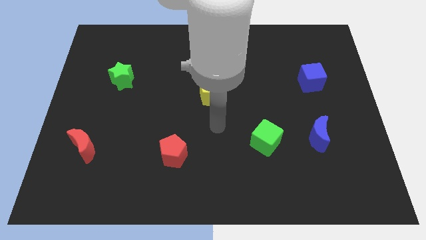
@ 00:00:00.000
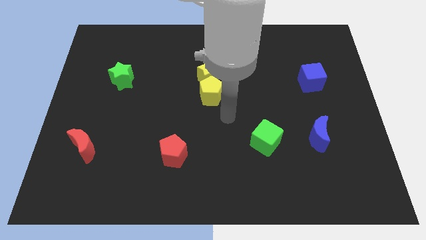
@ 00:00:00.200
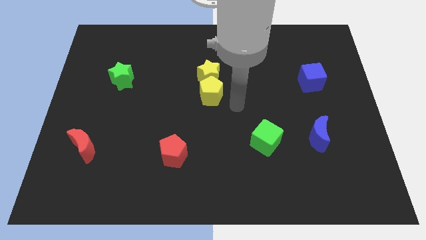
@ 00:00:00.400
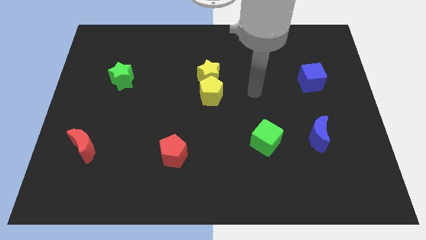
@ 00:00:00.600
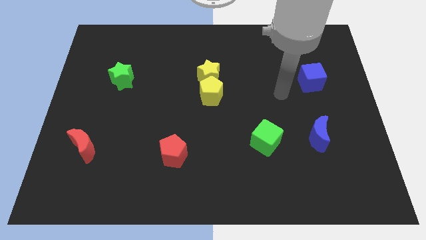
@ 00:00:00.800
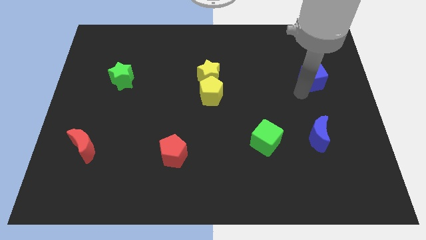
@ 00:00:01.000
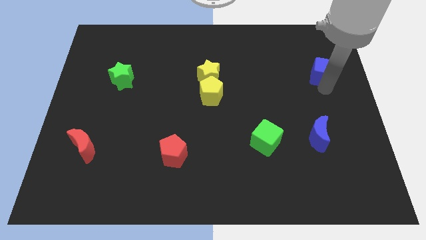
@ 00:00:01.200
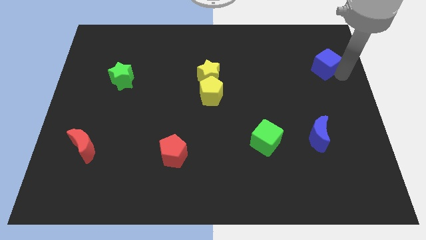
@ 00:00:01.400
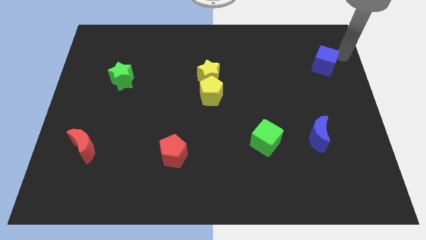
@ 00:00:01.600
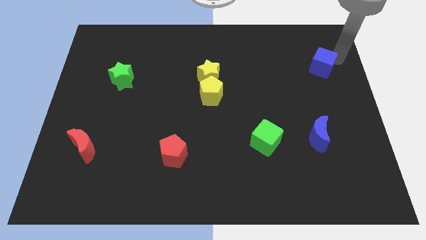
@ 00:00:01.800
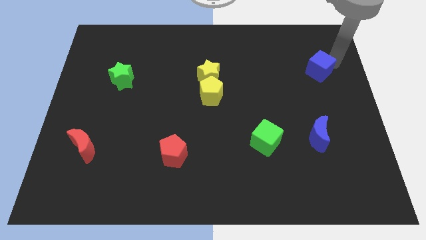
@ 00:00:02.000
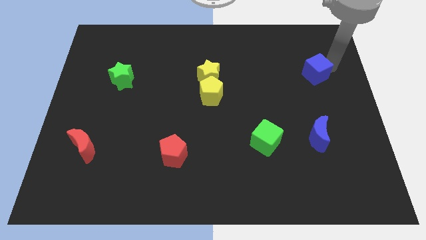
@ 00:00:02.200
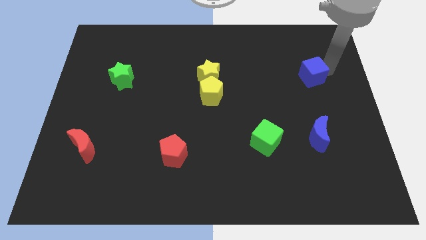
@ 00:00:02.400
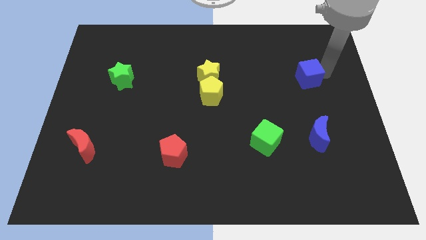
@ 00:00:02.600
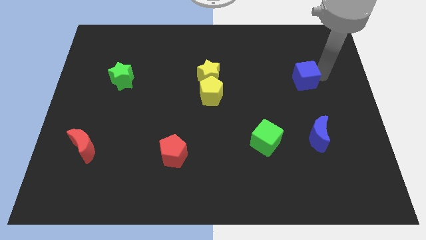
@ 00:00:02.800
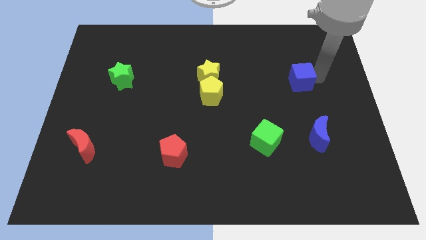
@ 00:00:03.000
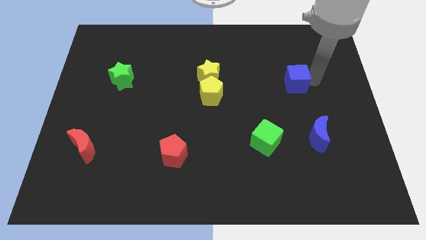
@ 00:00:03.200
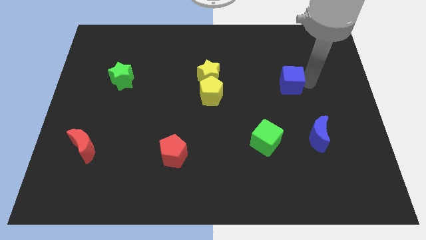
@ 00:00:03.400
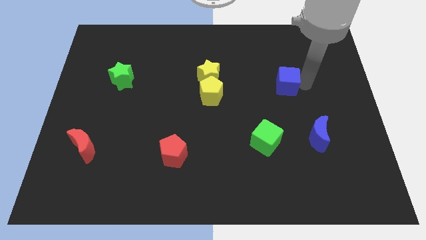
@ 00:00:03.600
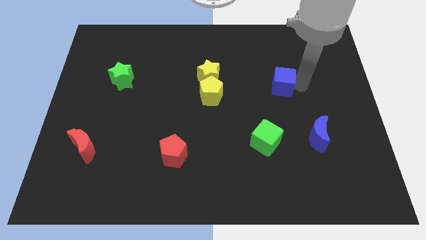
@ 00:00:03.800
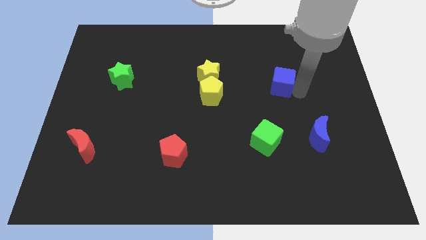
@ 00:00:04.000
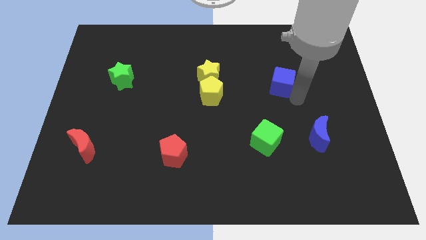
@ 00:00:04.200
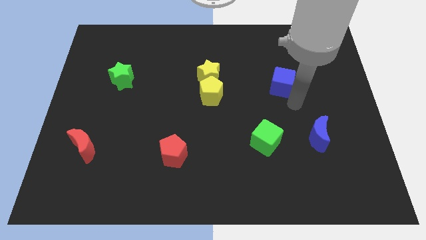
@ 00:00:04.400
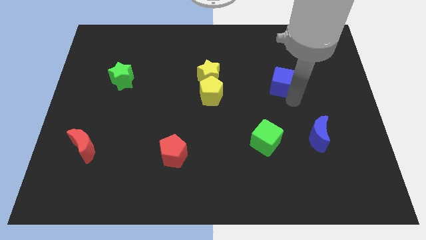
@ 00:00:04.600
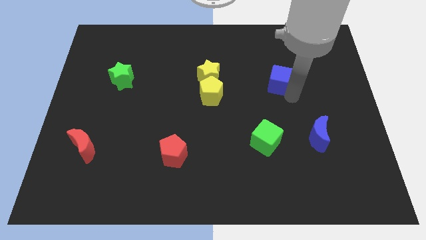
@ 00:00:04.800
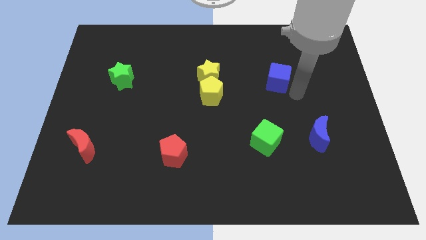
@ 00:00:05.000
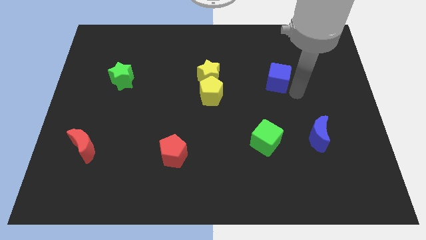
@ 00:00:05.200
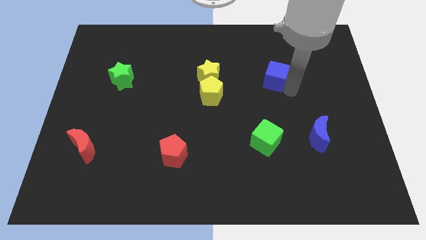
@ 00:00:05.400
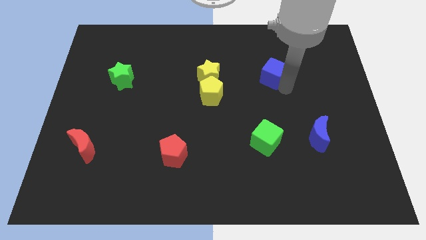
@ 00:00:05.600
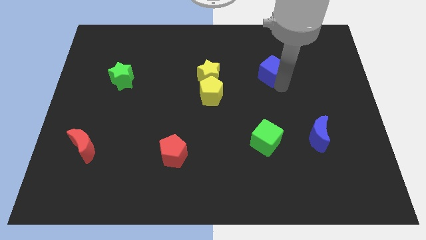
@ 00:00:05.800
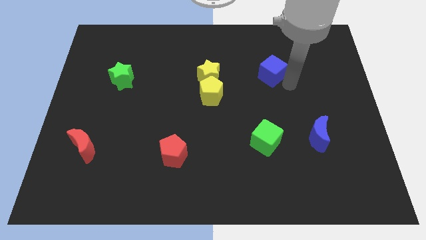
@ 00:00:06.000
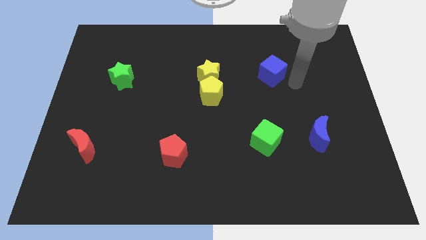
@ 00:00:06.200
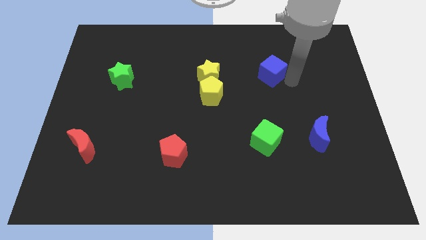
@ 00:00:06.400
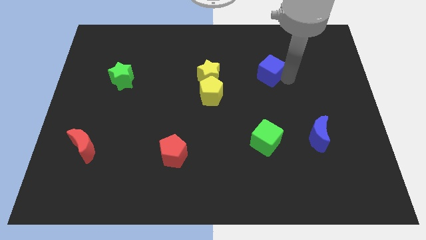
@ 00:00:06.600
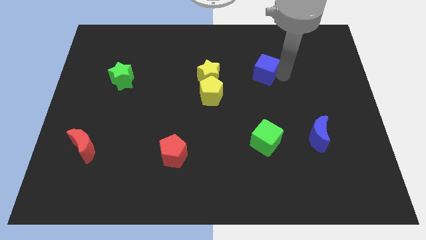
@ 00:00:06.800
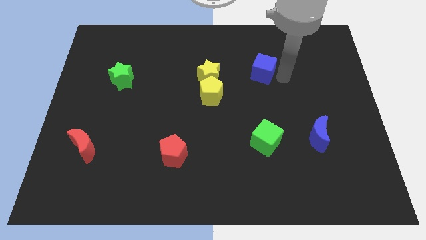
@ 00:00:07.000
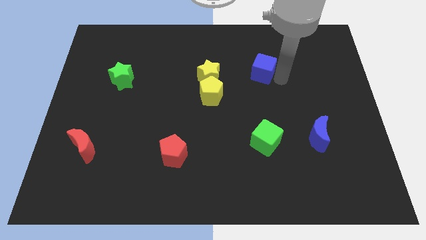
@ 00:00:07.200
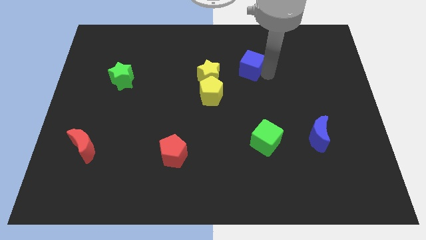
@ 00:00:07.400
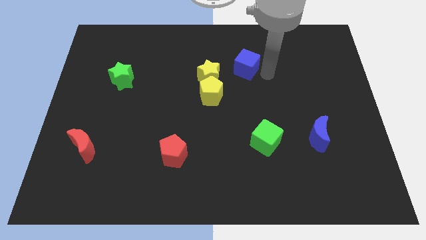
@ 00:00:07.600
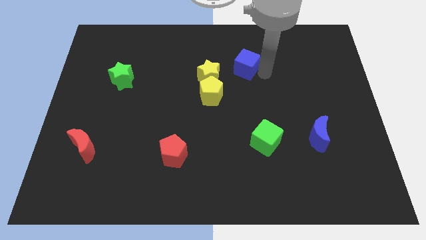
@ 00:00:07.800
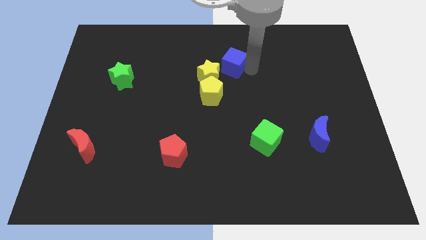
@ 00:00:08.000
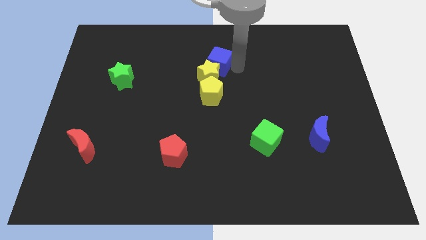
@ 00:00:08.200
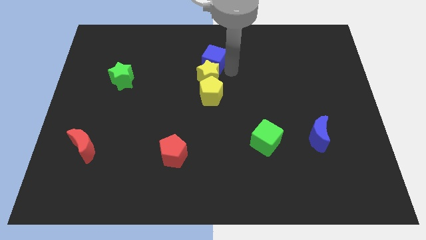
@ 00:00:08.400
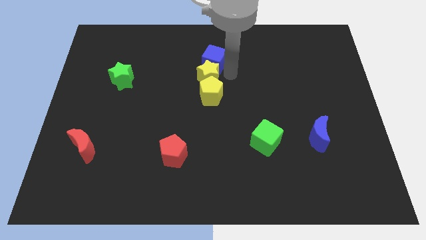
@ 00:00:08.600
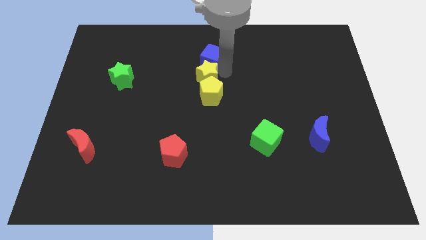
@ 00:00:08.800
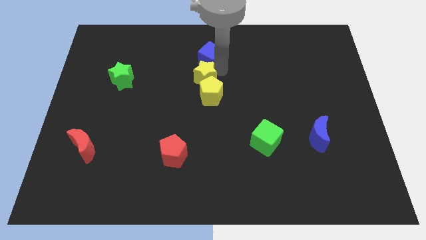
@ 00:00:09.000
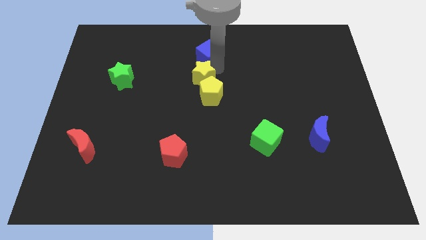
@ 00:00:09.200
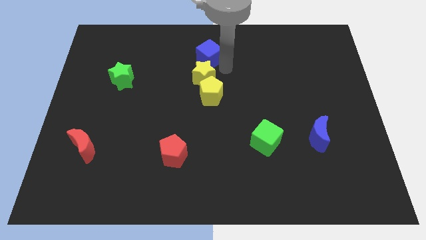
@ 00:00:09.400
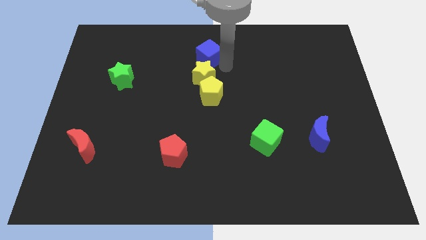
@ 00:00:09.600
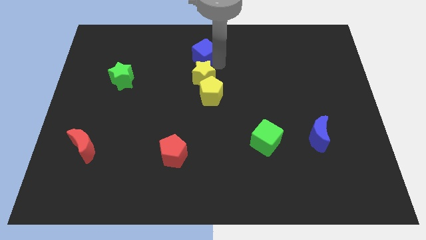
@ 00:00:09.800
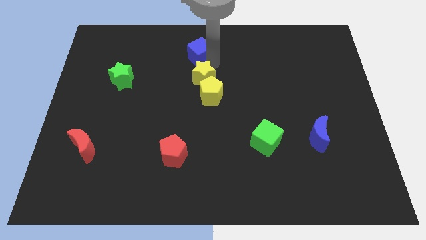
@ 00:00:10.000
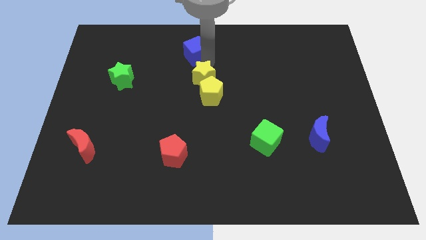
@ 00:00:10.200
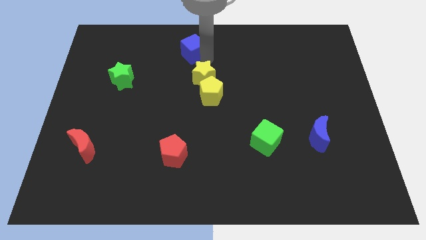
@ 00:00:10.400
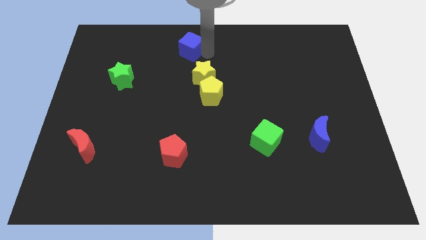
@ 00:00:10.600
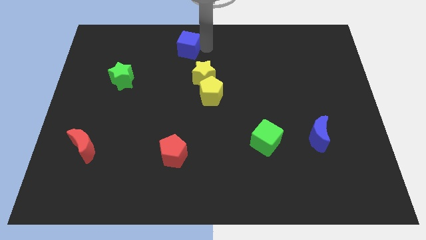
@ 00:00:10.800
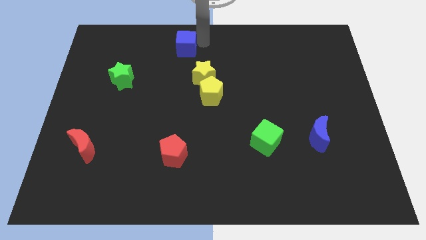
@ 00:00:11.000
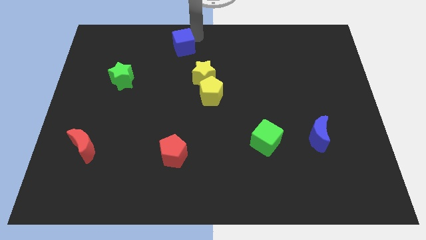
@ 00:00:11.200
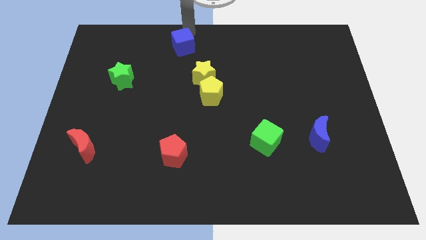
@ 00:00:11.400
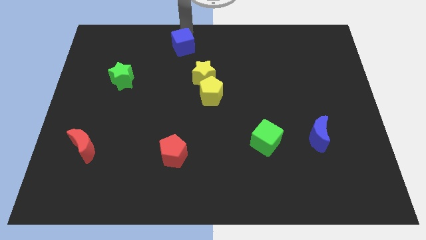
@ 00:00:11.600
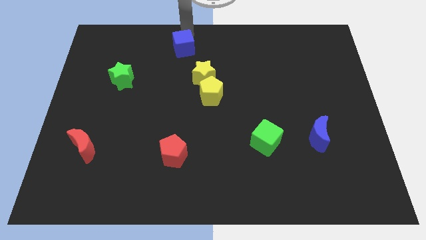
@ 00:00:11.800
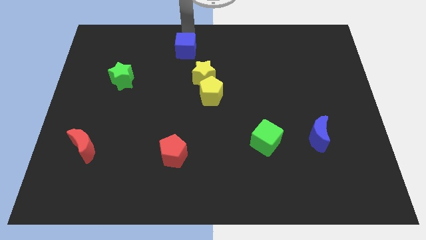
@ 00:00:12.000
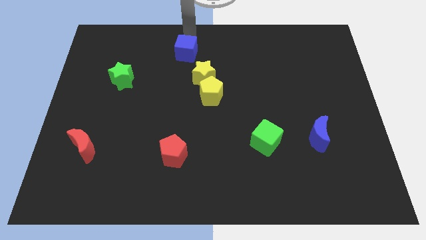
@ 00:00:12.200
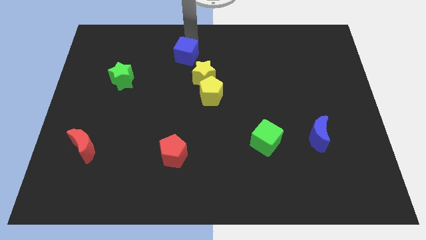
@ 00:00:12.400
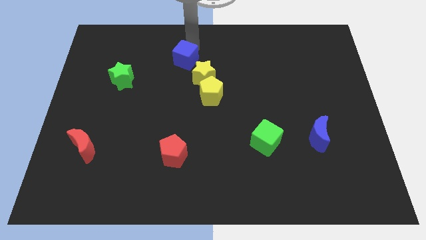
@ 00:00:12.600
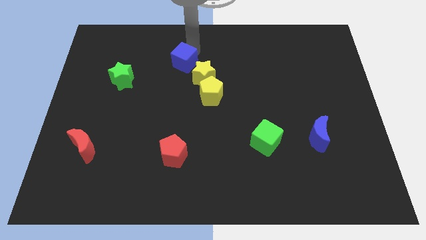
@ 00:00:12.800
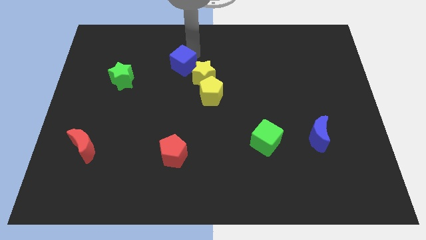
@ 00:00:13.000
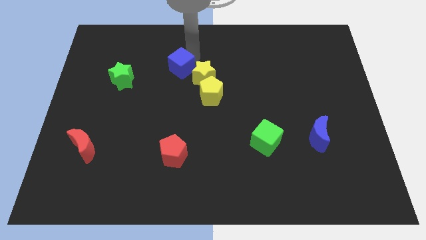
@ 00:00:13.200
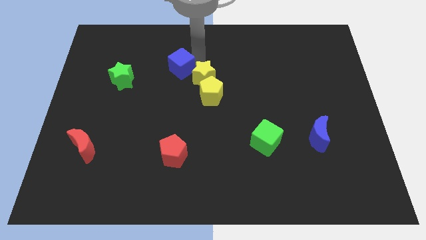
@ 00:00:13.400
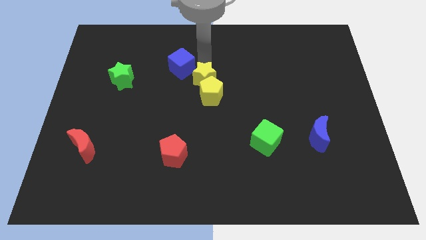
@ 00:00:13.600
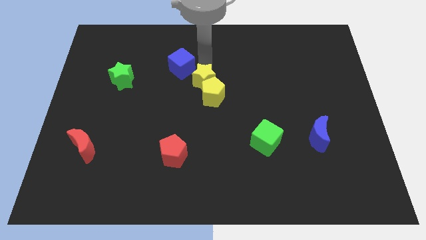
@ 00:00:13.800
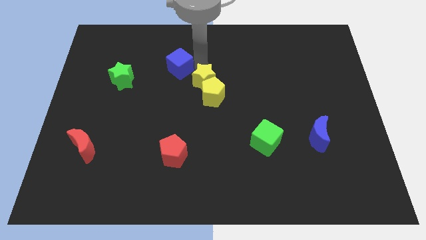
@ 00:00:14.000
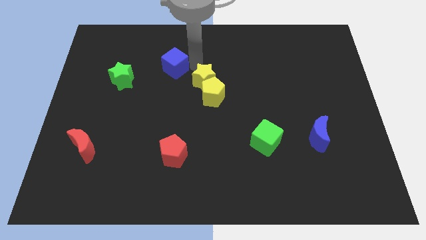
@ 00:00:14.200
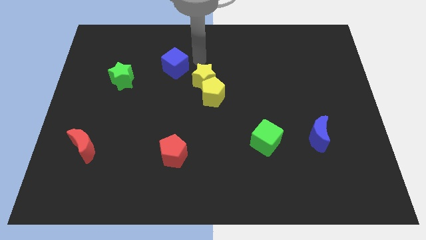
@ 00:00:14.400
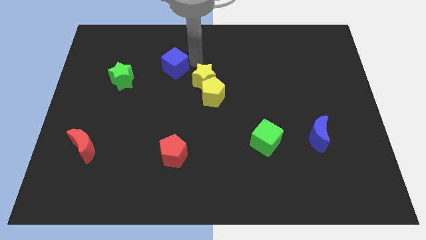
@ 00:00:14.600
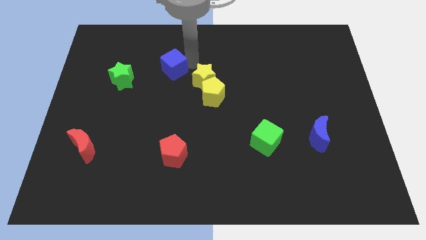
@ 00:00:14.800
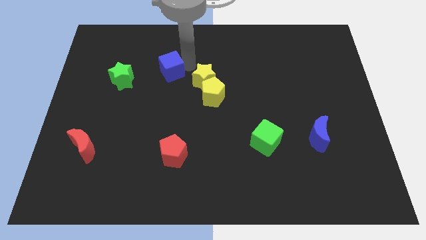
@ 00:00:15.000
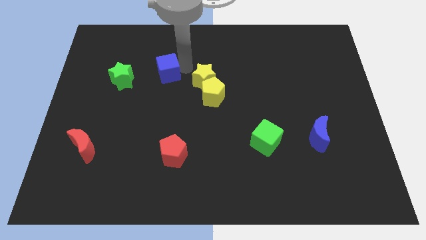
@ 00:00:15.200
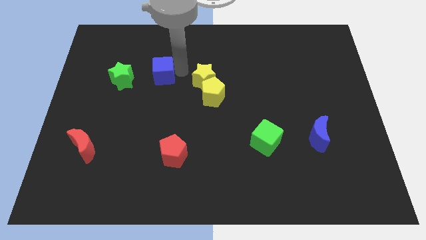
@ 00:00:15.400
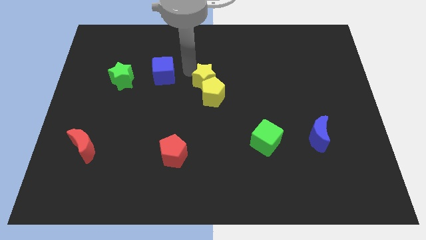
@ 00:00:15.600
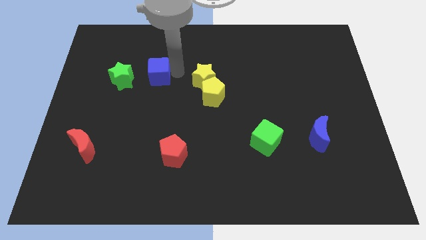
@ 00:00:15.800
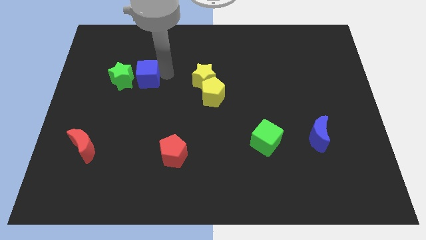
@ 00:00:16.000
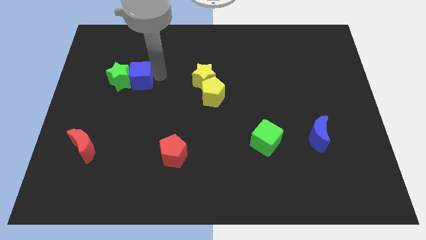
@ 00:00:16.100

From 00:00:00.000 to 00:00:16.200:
push the blue cube to the green star
